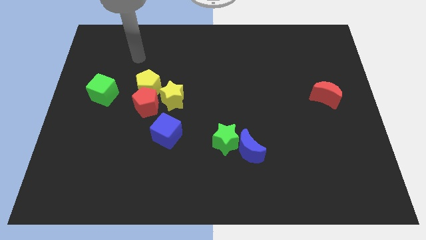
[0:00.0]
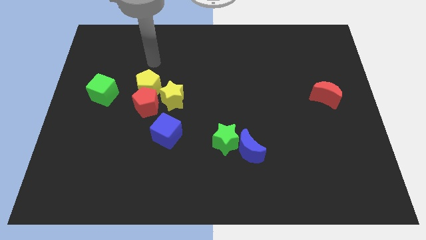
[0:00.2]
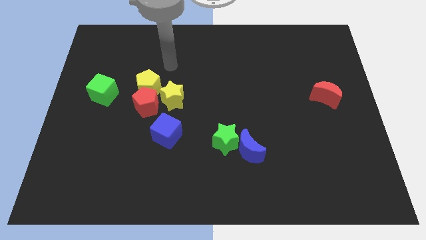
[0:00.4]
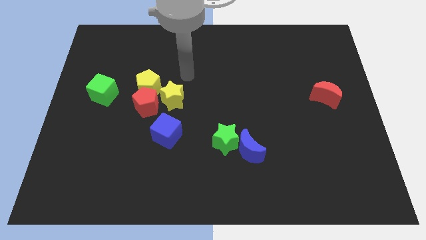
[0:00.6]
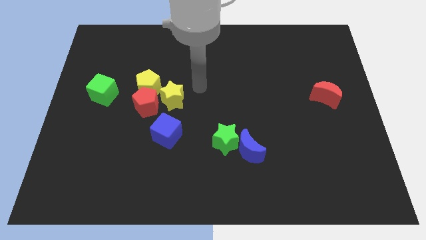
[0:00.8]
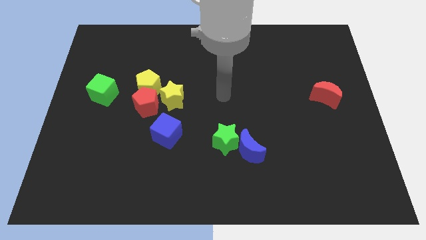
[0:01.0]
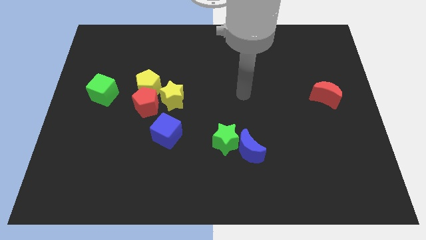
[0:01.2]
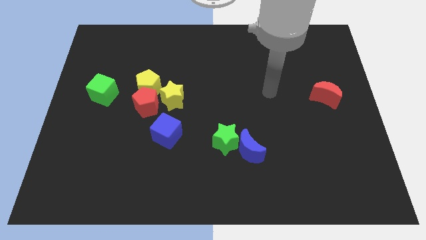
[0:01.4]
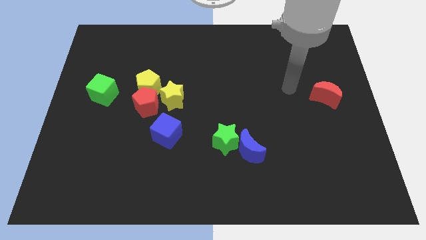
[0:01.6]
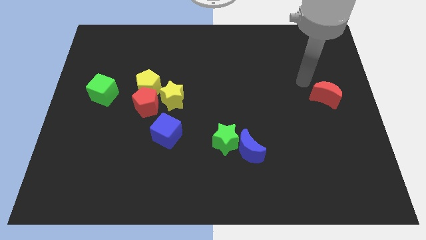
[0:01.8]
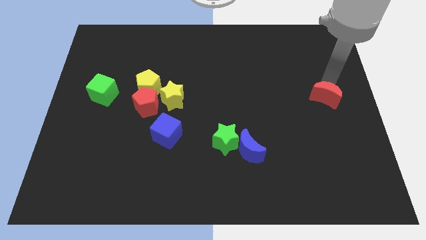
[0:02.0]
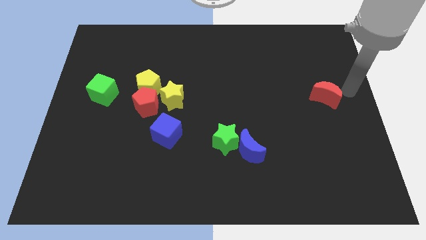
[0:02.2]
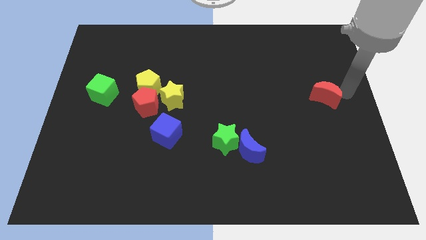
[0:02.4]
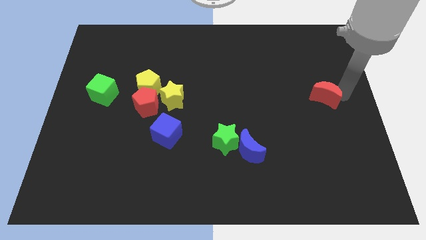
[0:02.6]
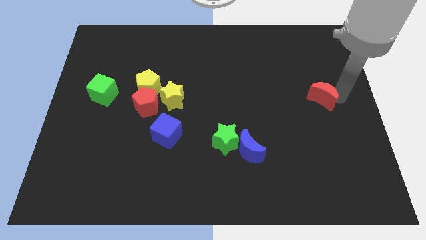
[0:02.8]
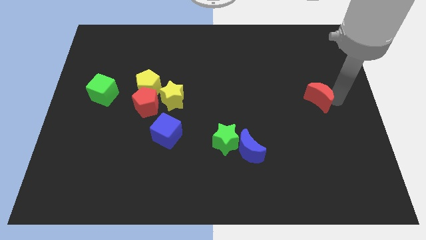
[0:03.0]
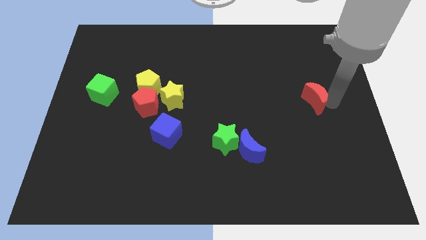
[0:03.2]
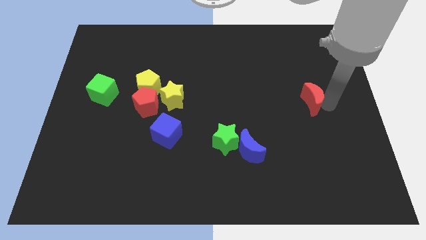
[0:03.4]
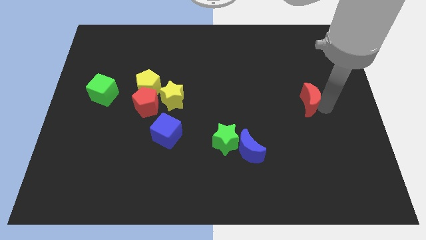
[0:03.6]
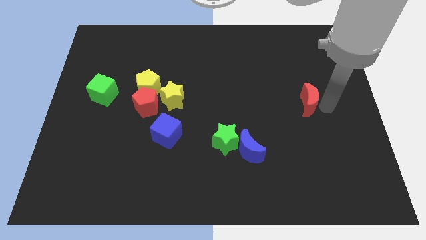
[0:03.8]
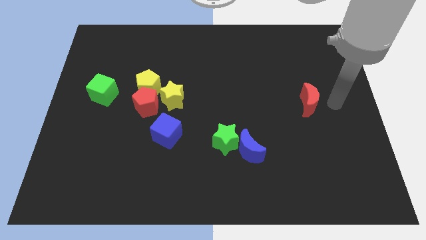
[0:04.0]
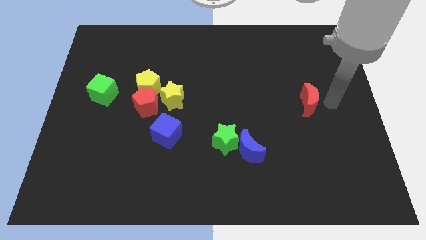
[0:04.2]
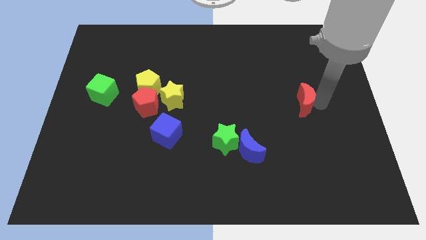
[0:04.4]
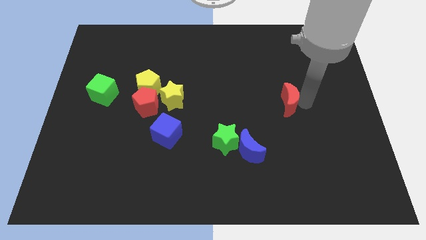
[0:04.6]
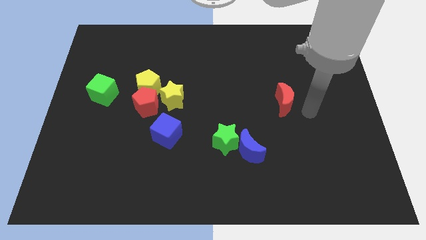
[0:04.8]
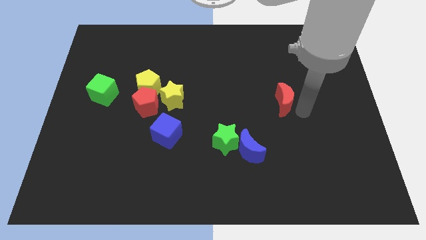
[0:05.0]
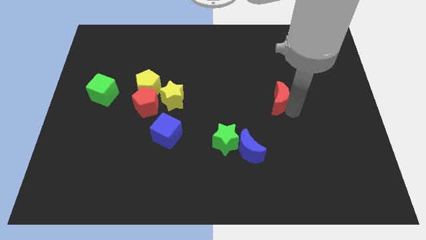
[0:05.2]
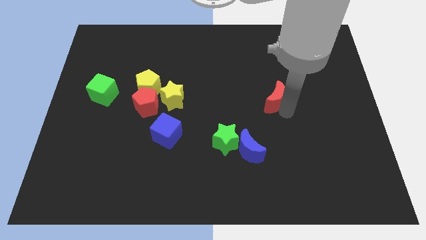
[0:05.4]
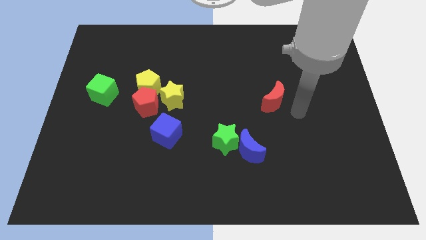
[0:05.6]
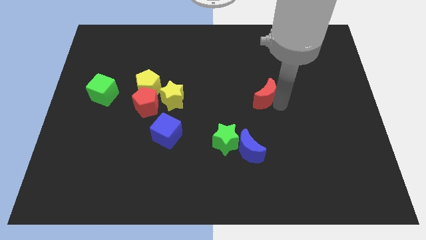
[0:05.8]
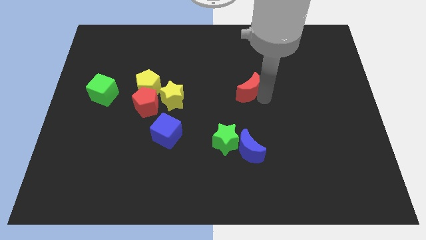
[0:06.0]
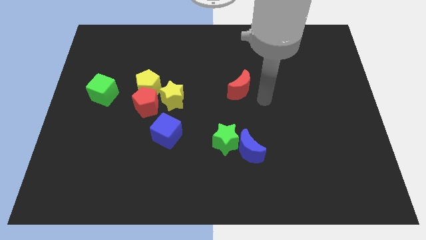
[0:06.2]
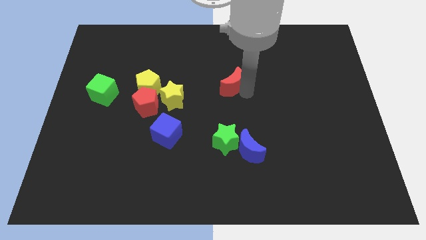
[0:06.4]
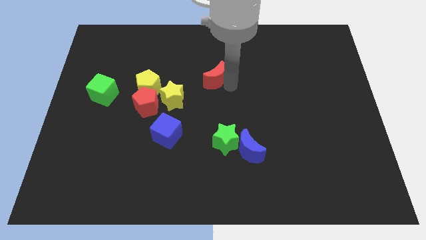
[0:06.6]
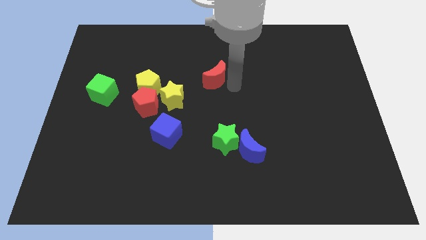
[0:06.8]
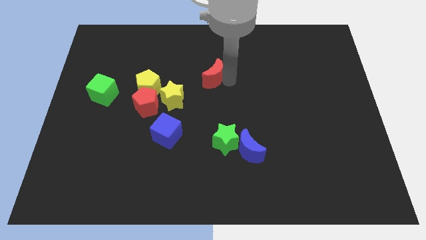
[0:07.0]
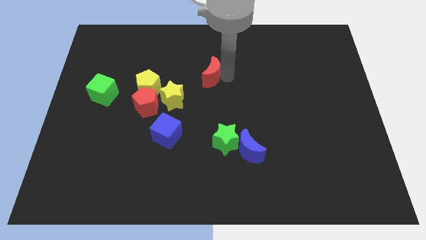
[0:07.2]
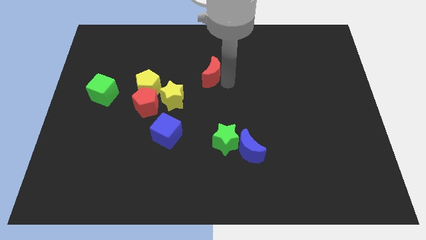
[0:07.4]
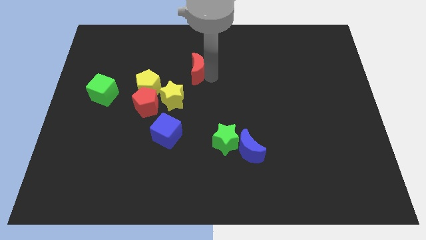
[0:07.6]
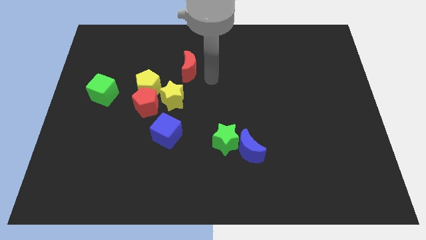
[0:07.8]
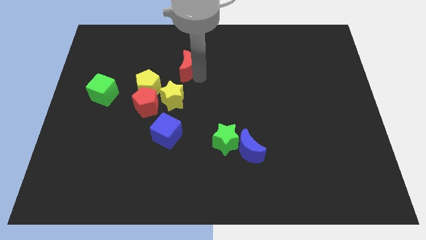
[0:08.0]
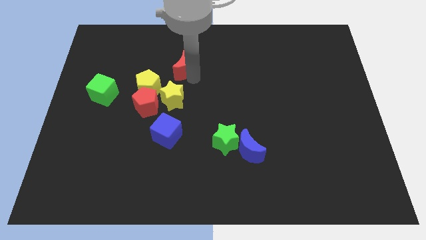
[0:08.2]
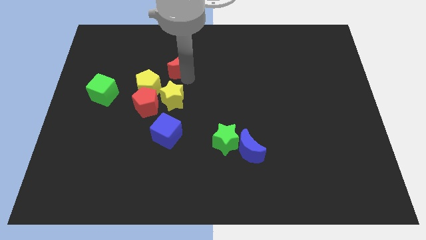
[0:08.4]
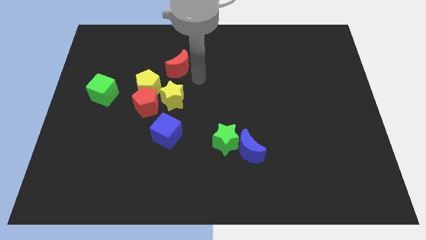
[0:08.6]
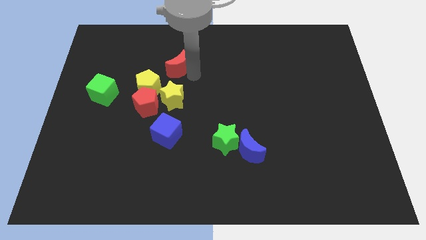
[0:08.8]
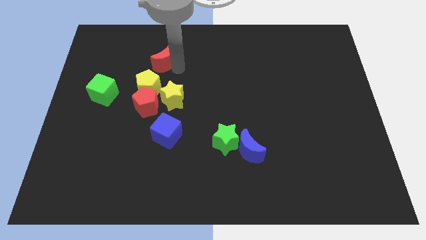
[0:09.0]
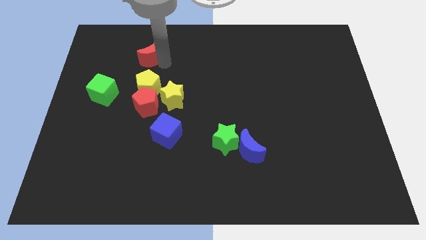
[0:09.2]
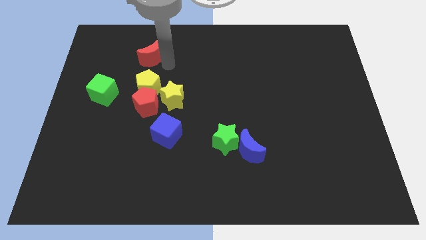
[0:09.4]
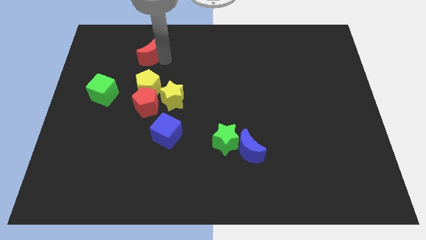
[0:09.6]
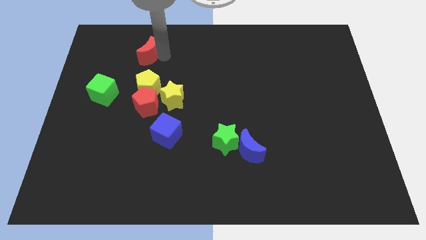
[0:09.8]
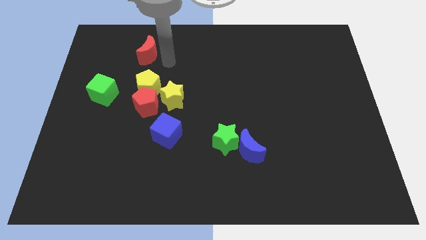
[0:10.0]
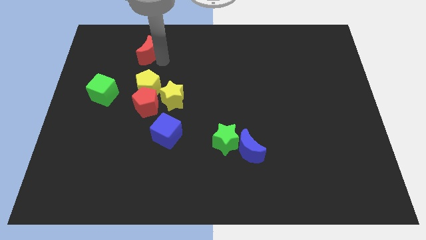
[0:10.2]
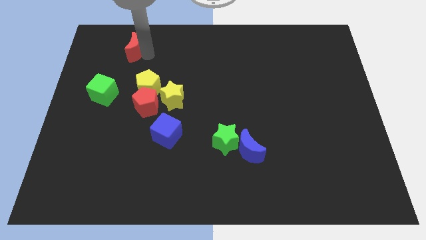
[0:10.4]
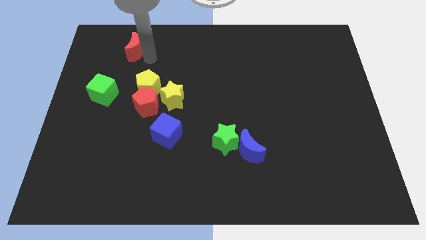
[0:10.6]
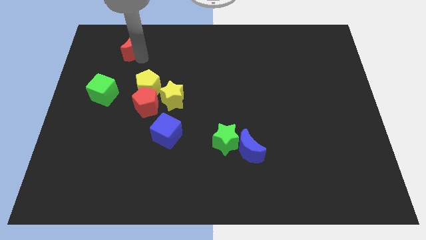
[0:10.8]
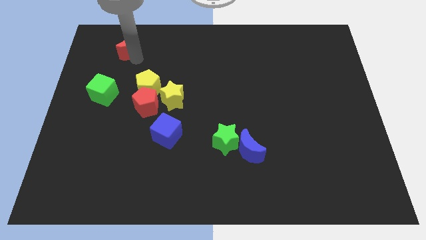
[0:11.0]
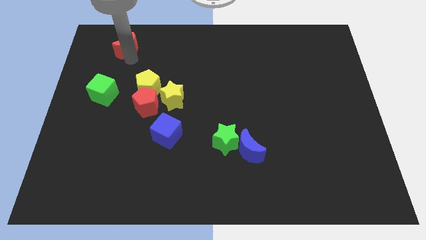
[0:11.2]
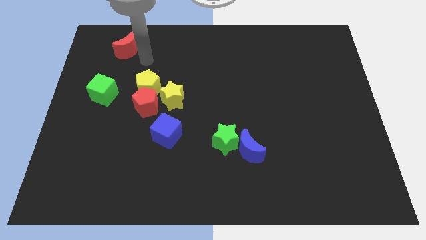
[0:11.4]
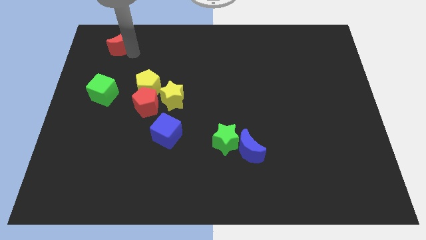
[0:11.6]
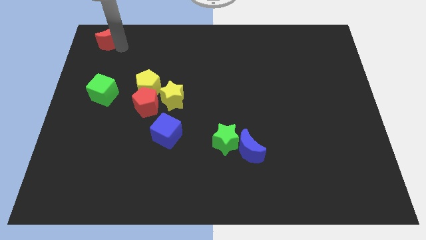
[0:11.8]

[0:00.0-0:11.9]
move the red moon to the upper left corner

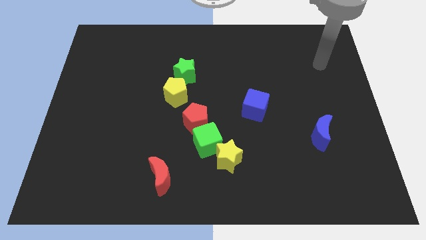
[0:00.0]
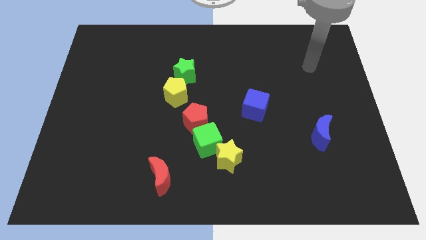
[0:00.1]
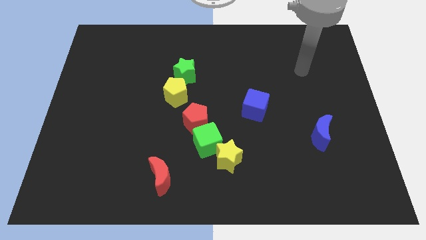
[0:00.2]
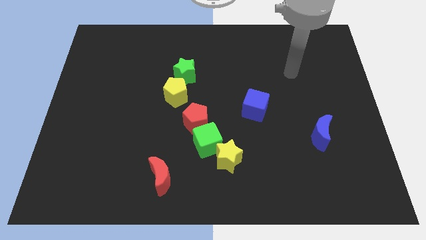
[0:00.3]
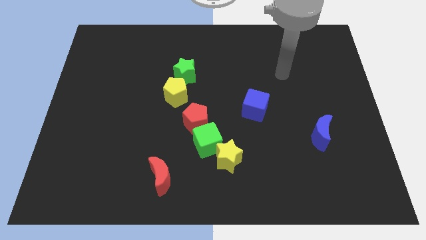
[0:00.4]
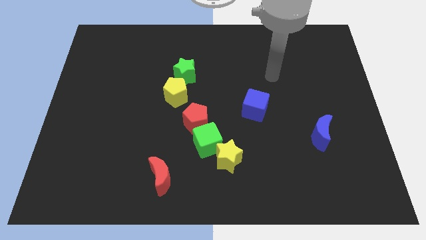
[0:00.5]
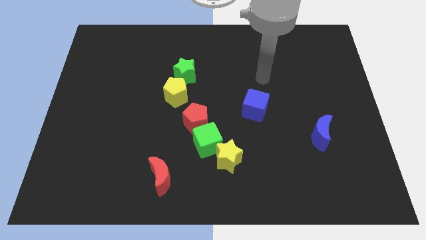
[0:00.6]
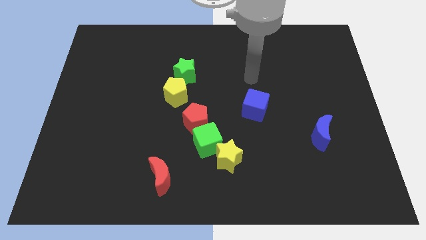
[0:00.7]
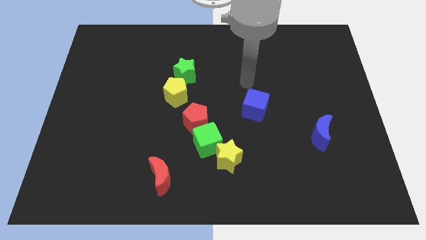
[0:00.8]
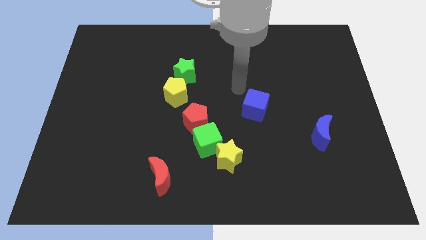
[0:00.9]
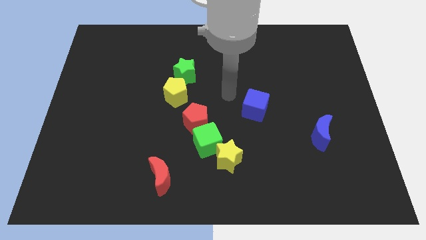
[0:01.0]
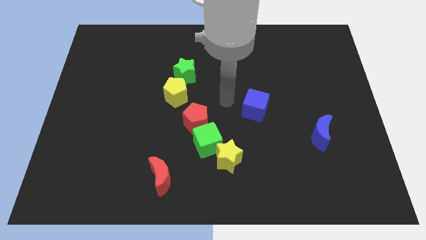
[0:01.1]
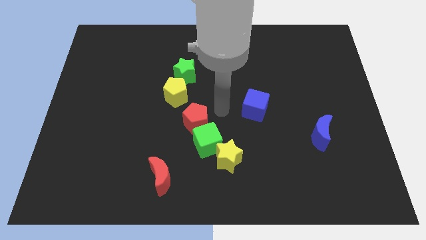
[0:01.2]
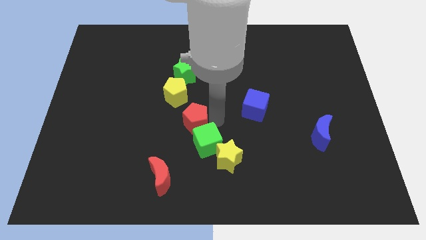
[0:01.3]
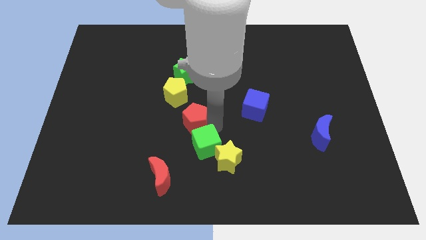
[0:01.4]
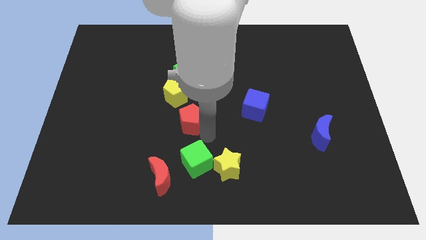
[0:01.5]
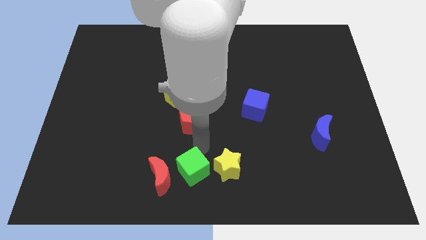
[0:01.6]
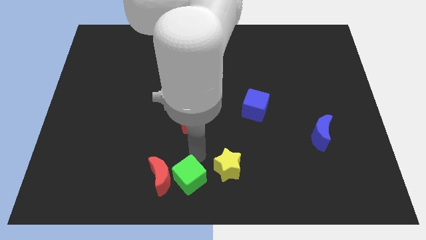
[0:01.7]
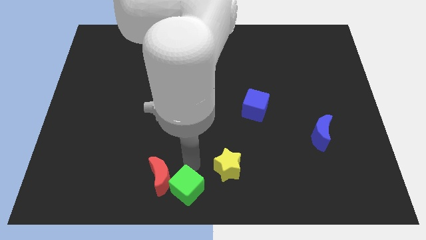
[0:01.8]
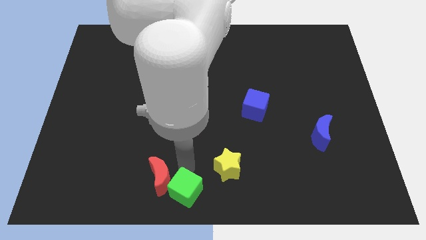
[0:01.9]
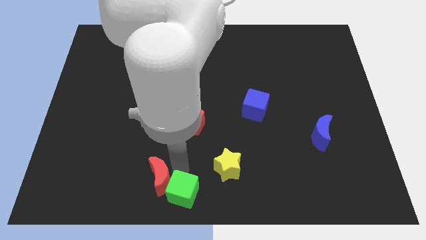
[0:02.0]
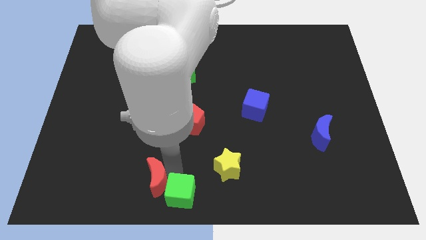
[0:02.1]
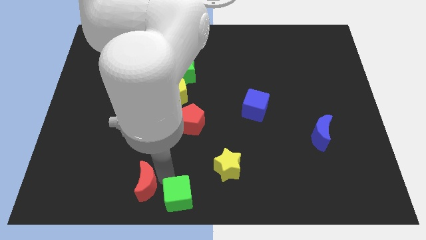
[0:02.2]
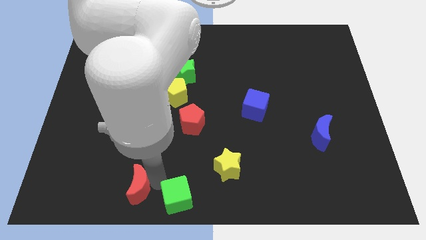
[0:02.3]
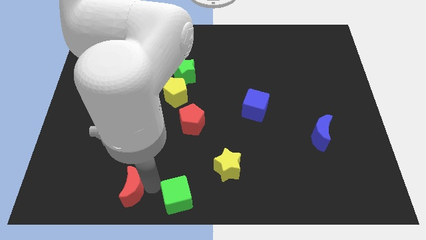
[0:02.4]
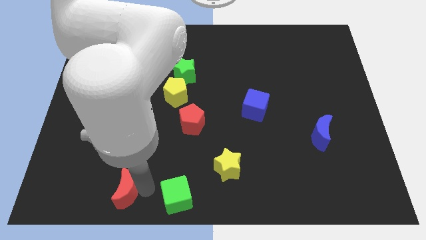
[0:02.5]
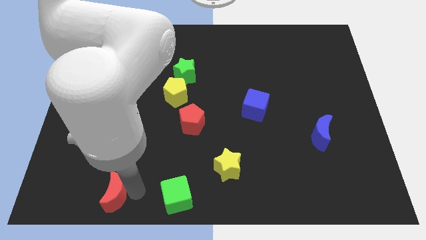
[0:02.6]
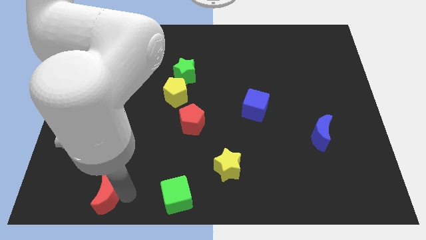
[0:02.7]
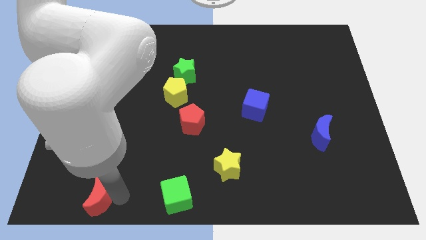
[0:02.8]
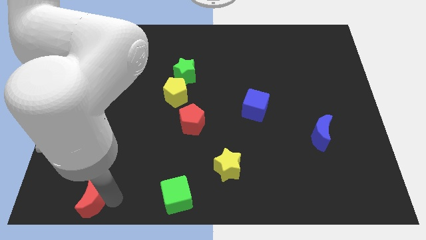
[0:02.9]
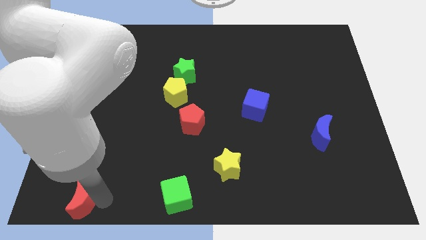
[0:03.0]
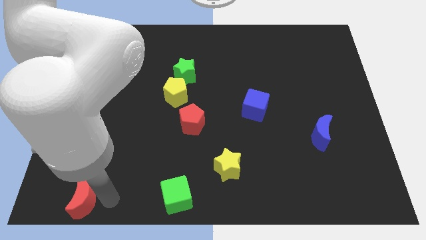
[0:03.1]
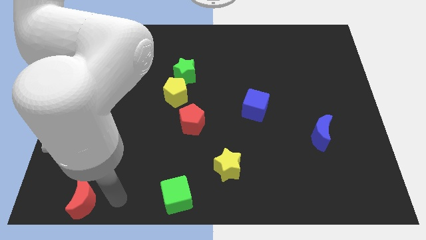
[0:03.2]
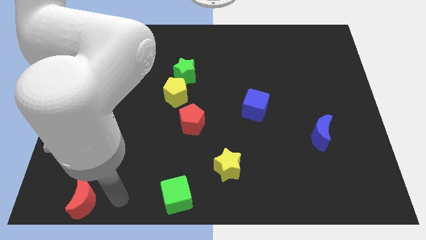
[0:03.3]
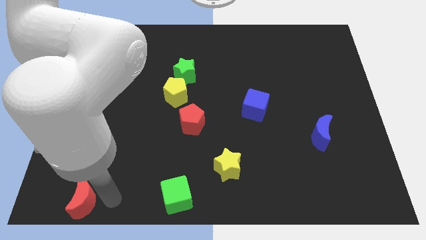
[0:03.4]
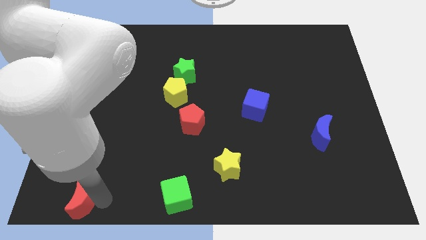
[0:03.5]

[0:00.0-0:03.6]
move the red moon to the bottom left of the board
